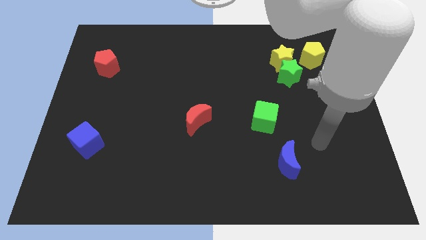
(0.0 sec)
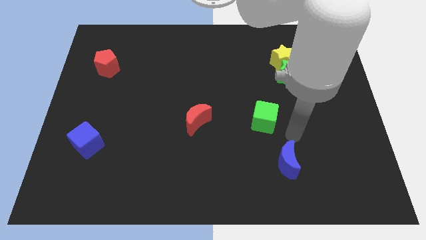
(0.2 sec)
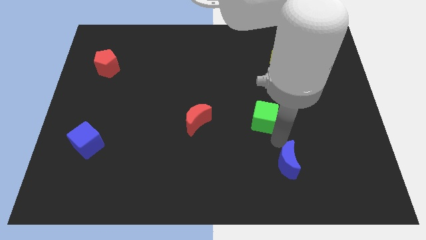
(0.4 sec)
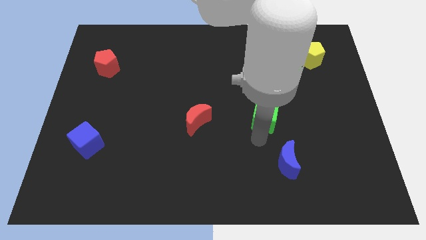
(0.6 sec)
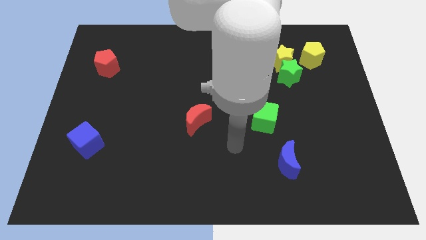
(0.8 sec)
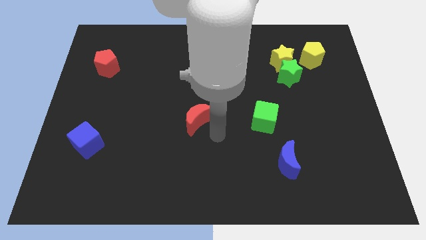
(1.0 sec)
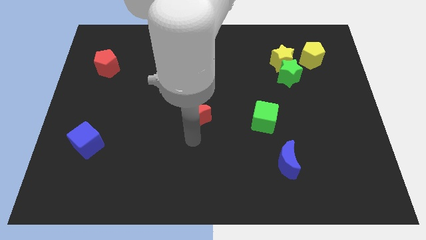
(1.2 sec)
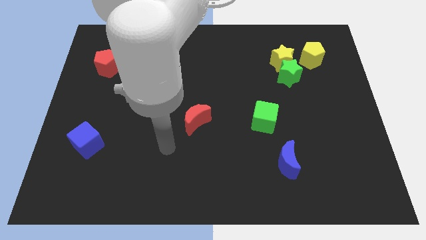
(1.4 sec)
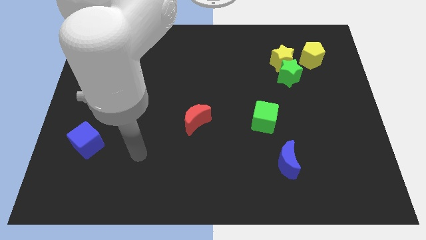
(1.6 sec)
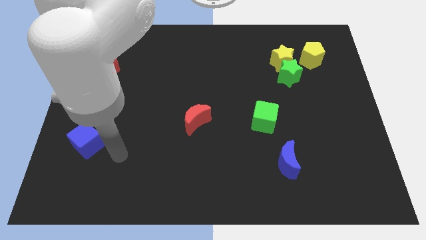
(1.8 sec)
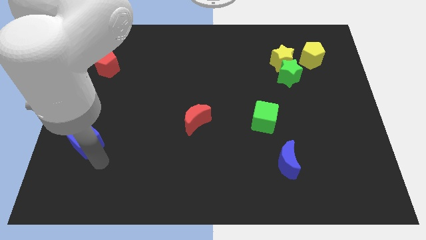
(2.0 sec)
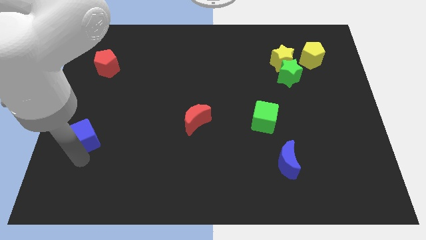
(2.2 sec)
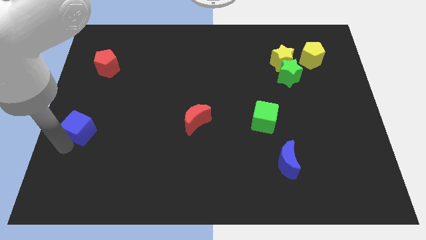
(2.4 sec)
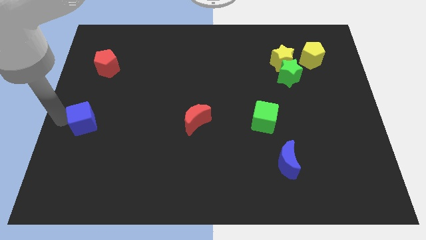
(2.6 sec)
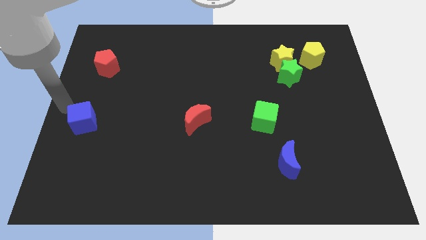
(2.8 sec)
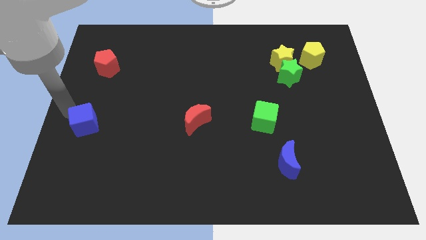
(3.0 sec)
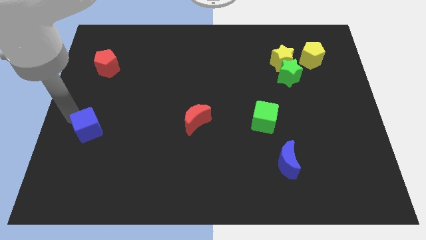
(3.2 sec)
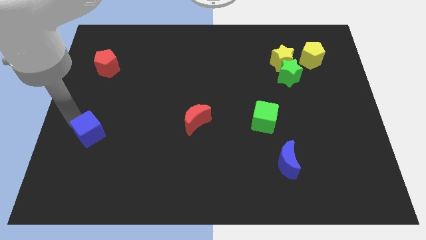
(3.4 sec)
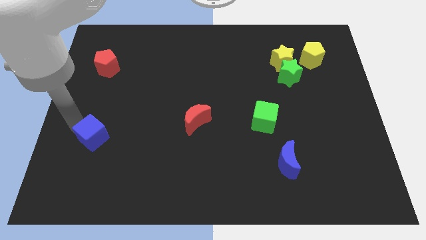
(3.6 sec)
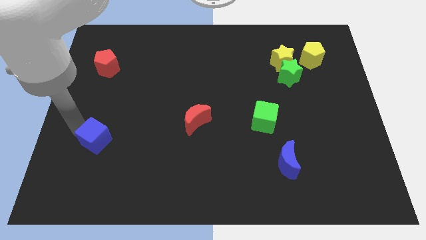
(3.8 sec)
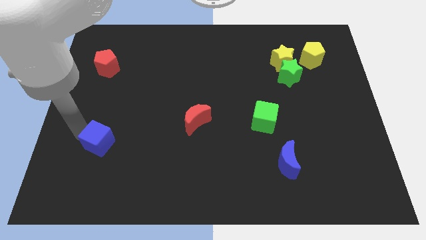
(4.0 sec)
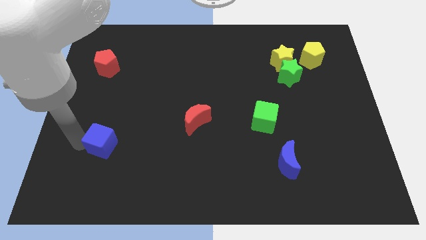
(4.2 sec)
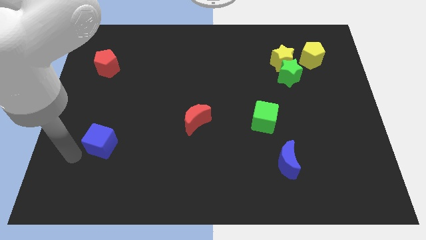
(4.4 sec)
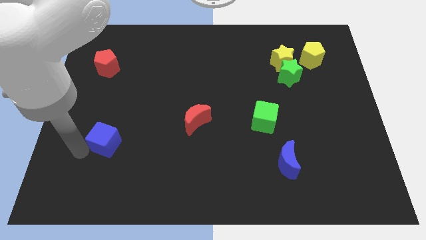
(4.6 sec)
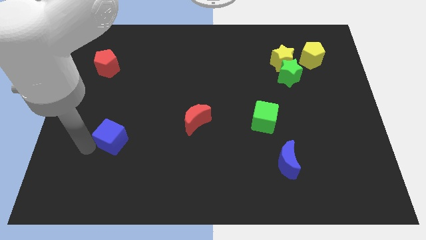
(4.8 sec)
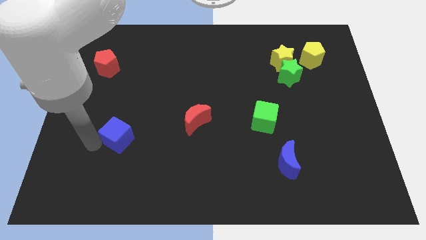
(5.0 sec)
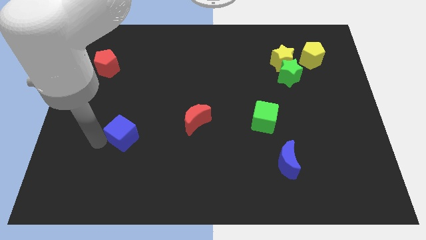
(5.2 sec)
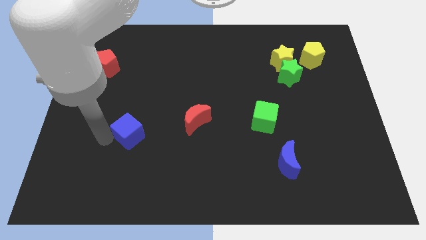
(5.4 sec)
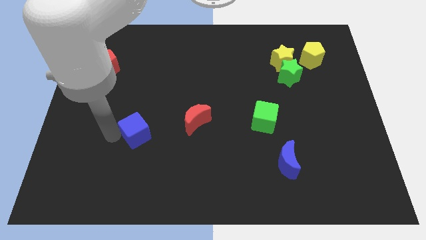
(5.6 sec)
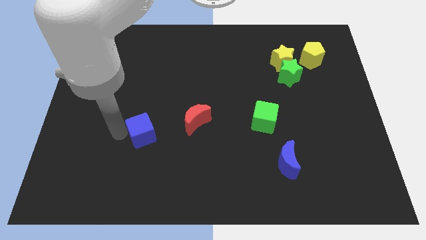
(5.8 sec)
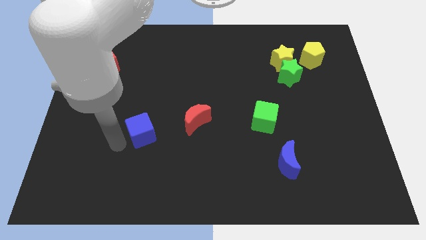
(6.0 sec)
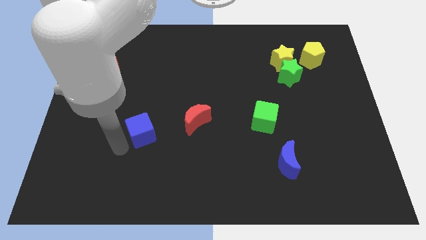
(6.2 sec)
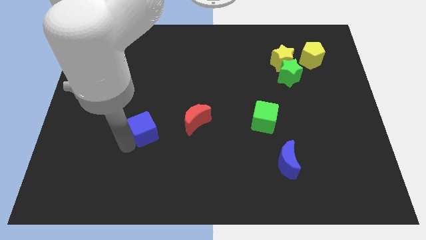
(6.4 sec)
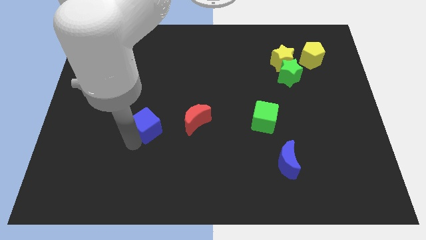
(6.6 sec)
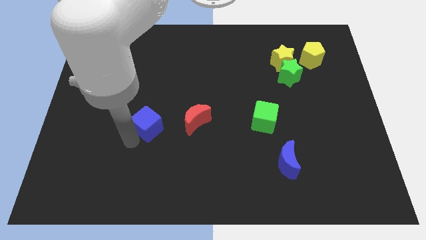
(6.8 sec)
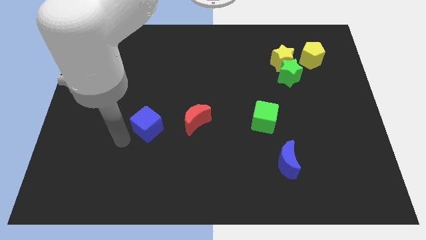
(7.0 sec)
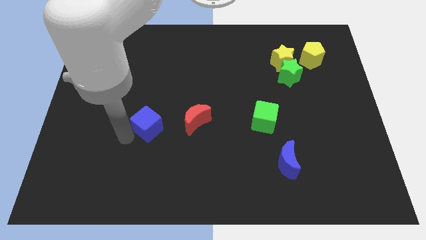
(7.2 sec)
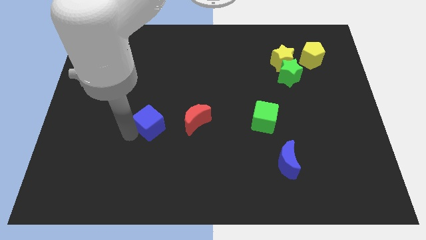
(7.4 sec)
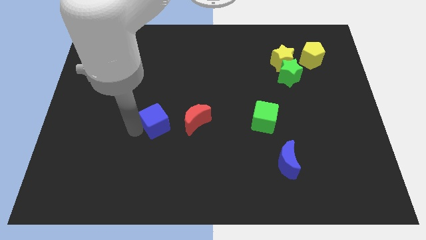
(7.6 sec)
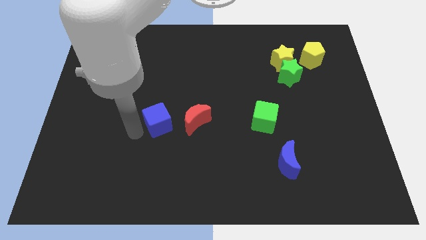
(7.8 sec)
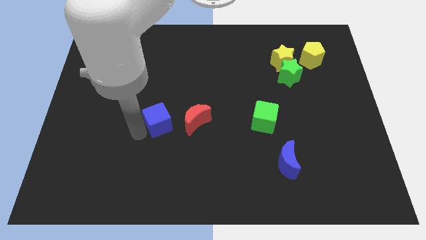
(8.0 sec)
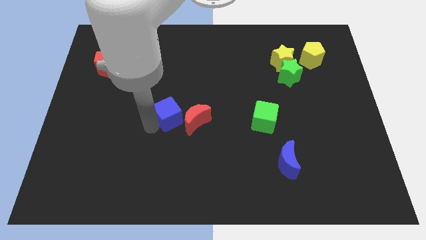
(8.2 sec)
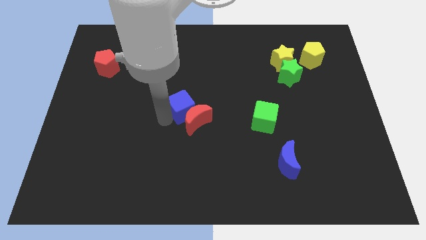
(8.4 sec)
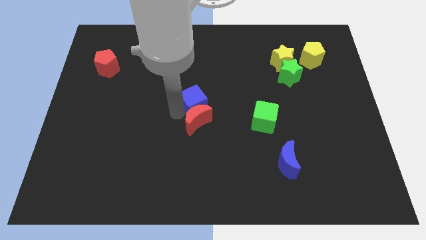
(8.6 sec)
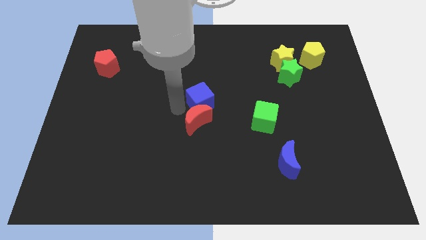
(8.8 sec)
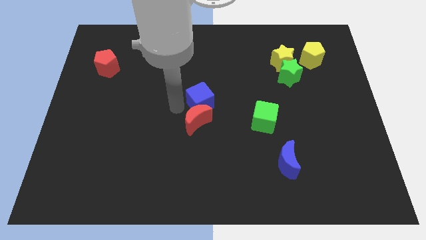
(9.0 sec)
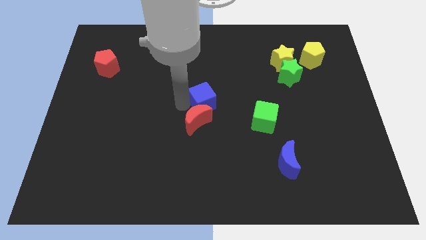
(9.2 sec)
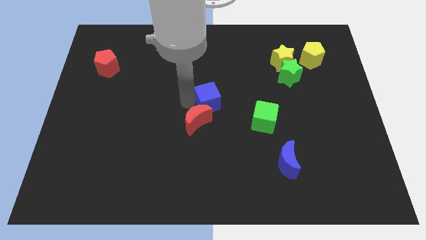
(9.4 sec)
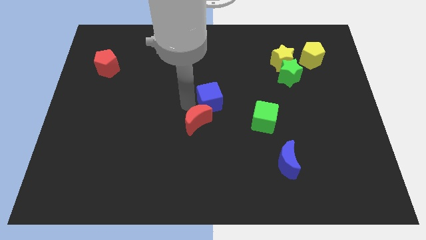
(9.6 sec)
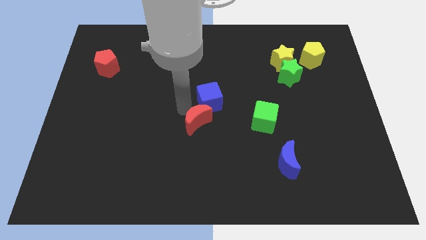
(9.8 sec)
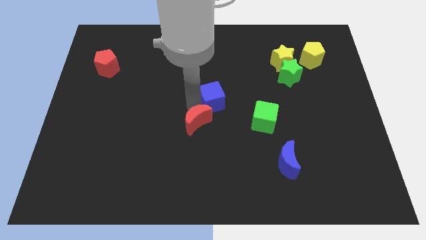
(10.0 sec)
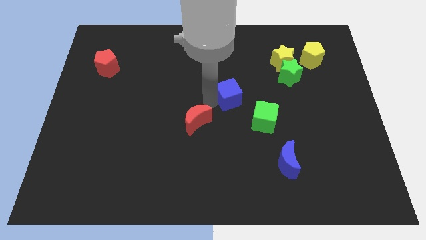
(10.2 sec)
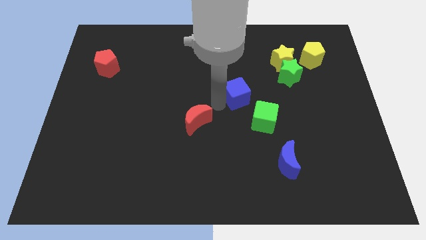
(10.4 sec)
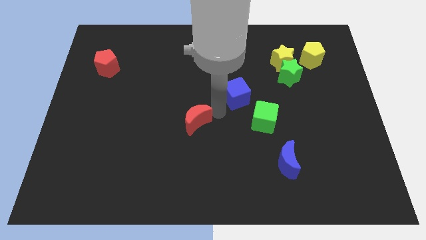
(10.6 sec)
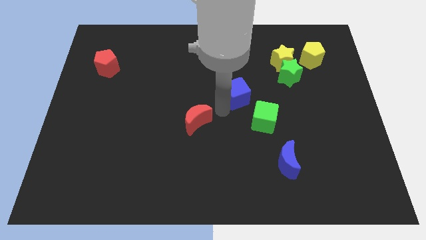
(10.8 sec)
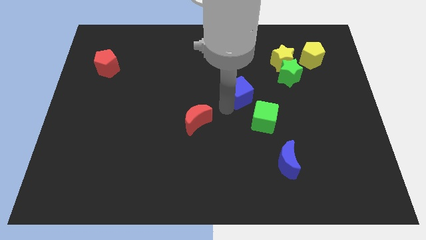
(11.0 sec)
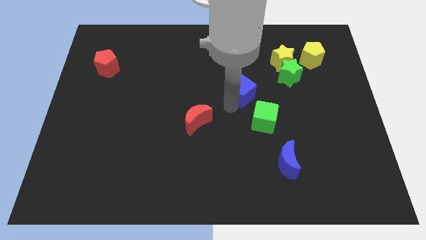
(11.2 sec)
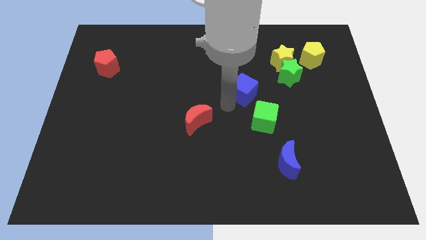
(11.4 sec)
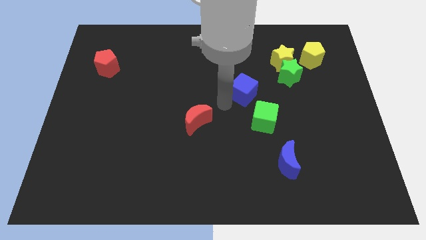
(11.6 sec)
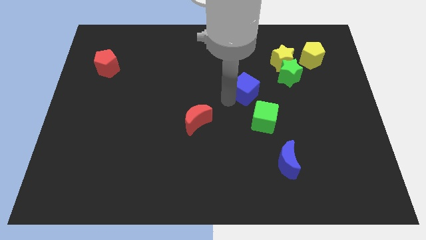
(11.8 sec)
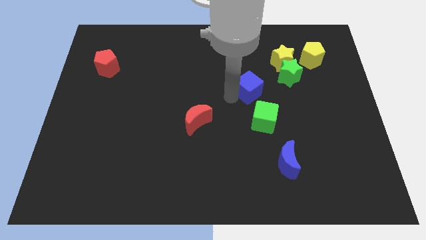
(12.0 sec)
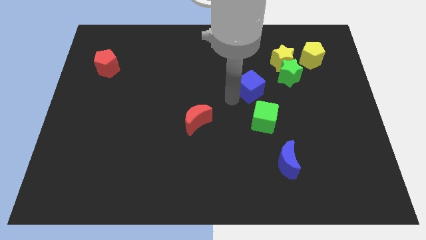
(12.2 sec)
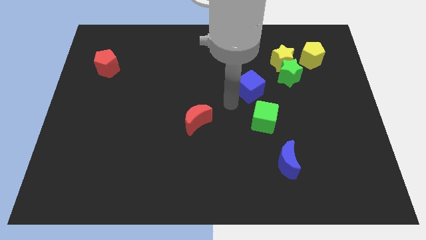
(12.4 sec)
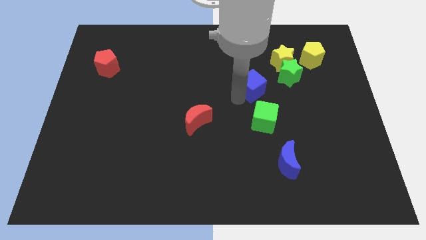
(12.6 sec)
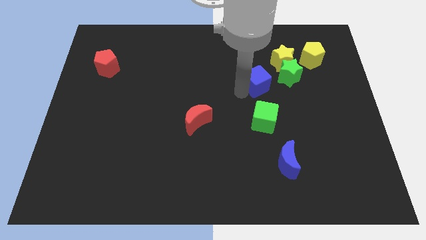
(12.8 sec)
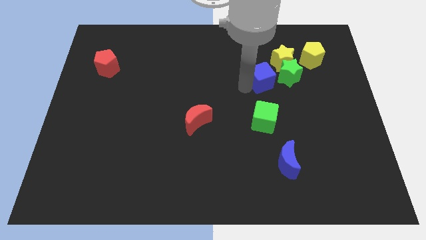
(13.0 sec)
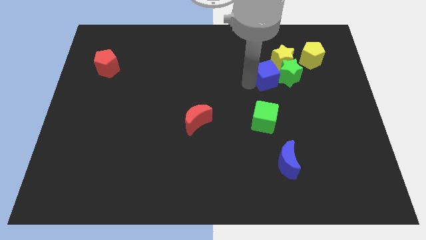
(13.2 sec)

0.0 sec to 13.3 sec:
put the blue cube close to the green star

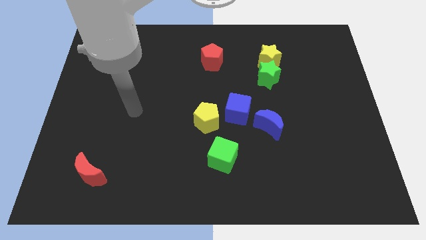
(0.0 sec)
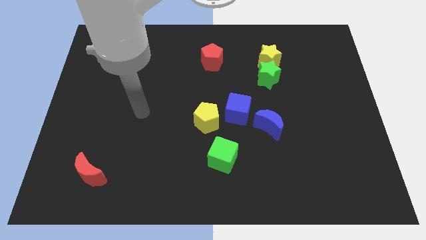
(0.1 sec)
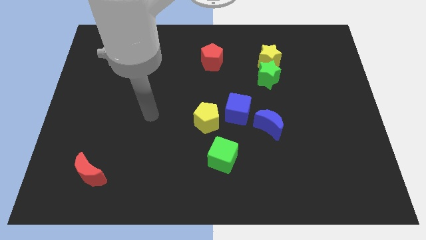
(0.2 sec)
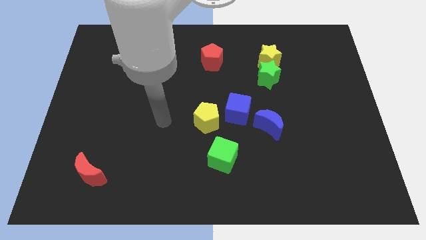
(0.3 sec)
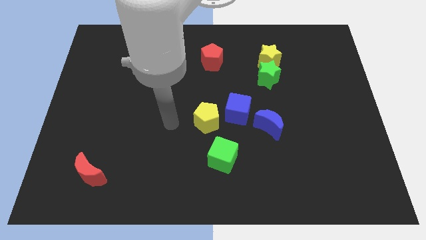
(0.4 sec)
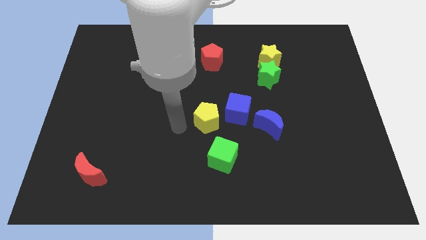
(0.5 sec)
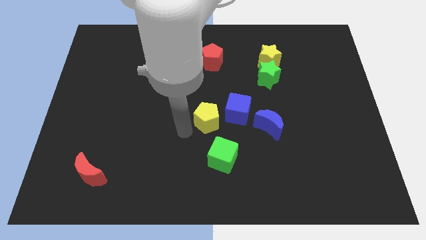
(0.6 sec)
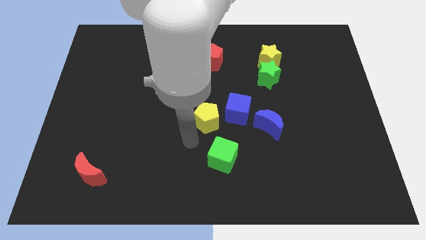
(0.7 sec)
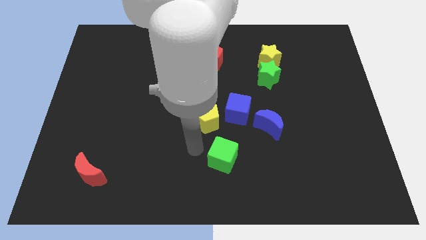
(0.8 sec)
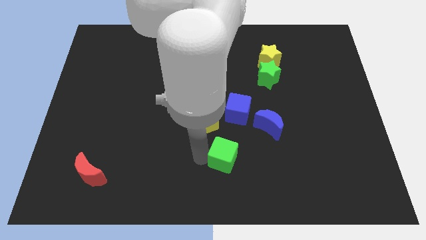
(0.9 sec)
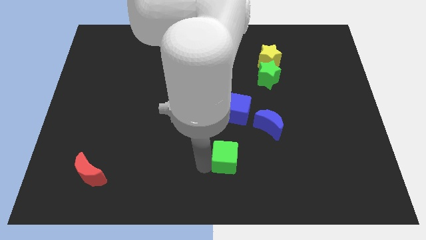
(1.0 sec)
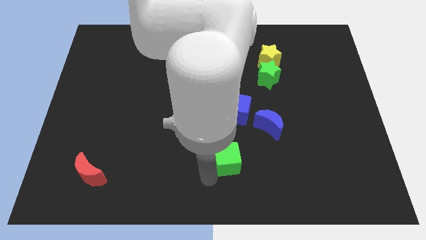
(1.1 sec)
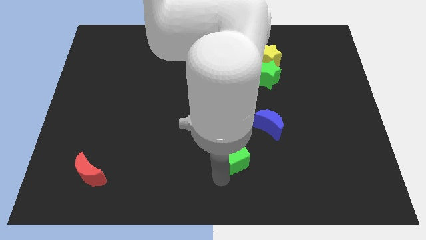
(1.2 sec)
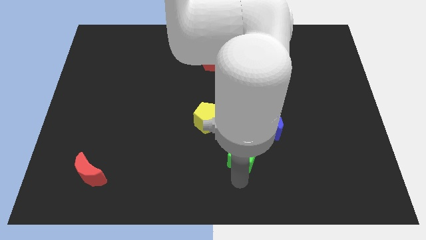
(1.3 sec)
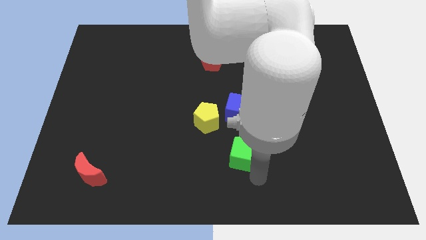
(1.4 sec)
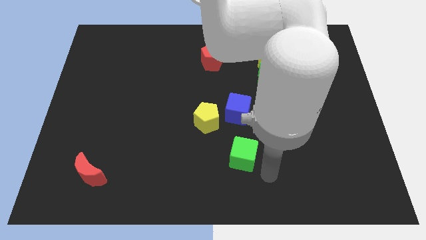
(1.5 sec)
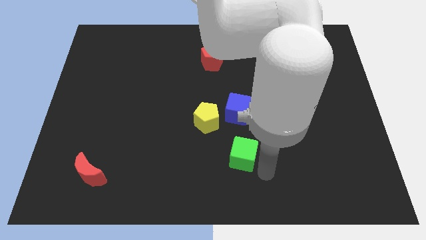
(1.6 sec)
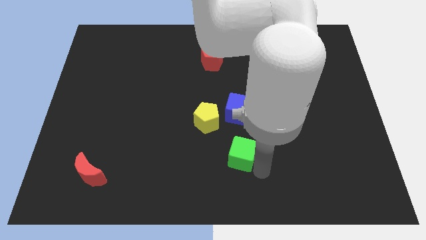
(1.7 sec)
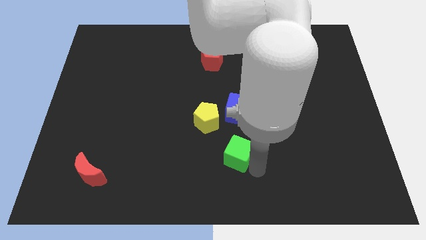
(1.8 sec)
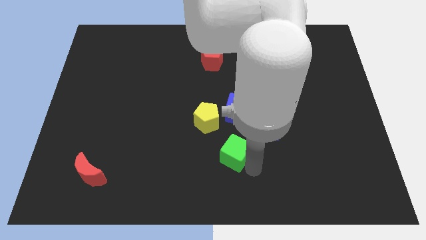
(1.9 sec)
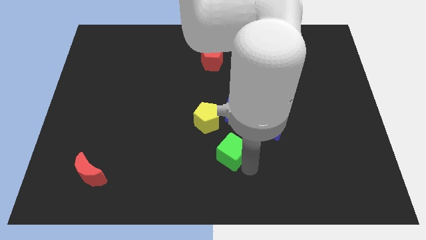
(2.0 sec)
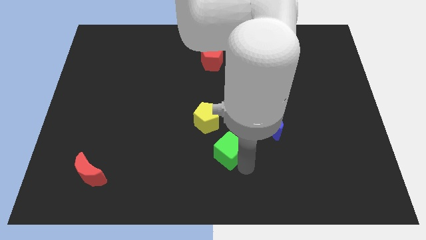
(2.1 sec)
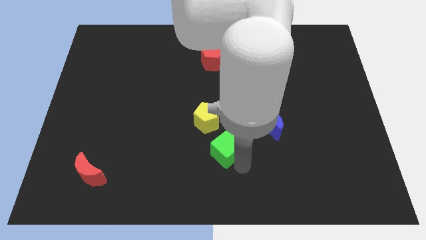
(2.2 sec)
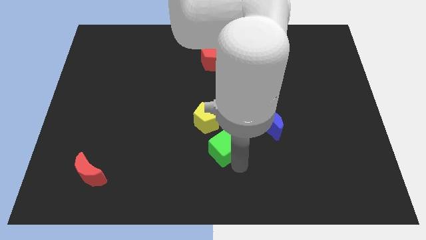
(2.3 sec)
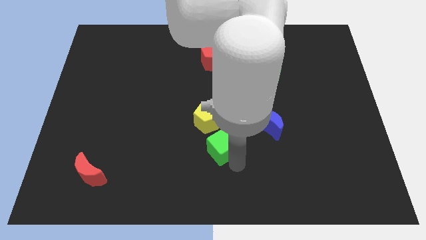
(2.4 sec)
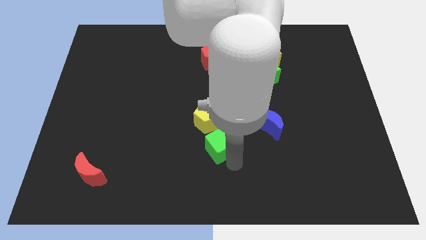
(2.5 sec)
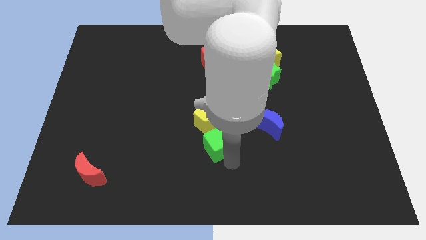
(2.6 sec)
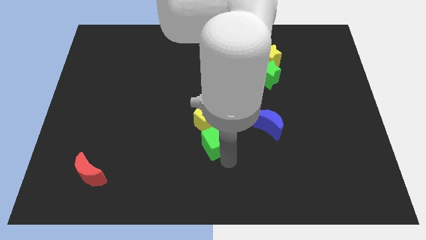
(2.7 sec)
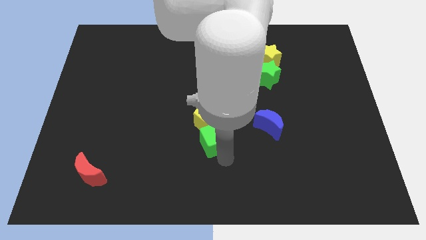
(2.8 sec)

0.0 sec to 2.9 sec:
slide the green cube towards the yellow pentagon
